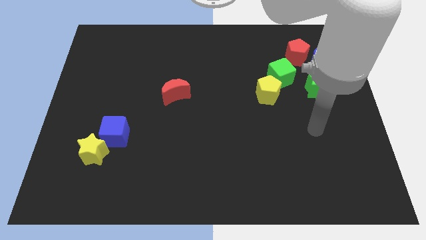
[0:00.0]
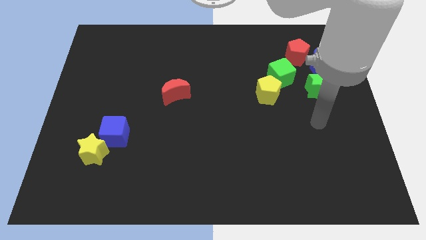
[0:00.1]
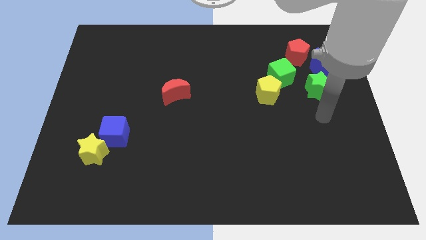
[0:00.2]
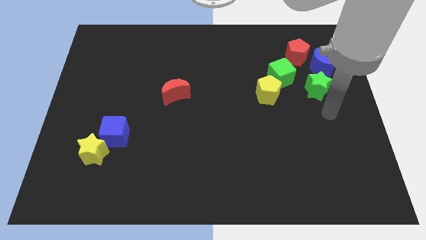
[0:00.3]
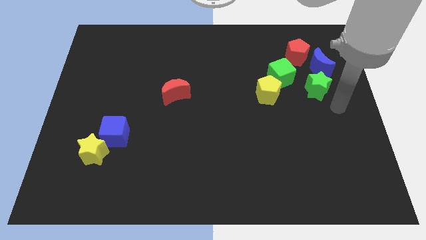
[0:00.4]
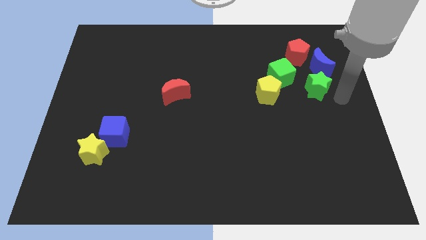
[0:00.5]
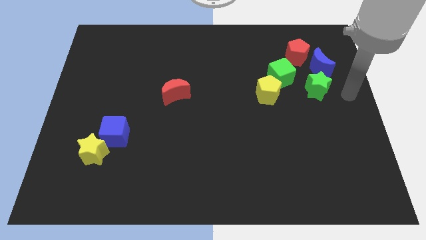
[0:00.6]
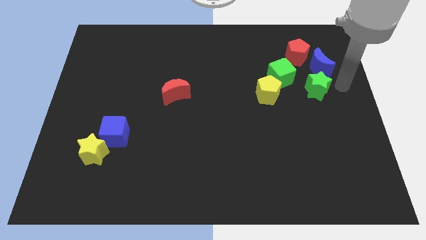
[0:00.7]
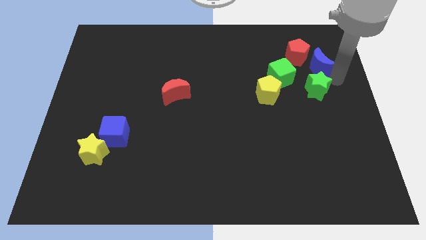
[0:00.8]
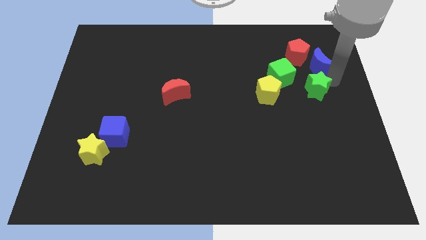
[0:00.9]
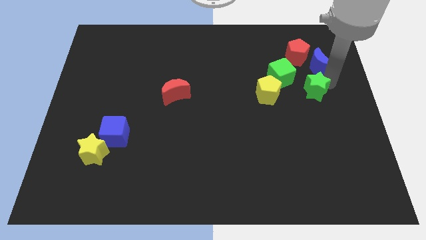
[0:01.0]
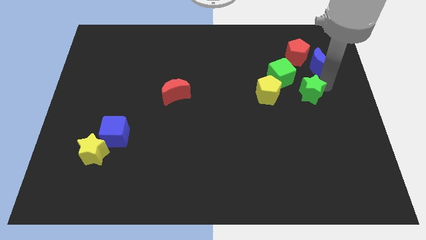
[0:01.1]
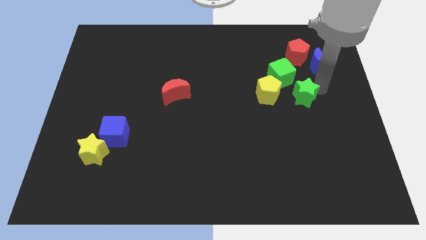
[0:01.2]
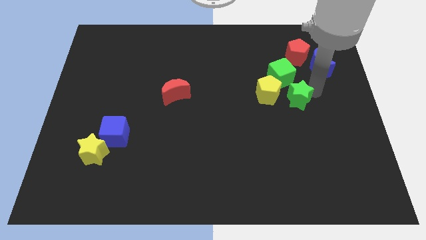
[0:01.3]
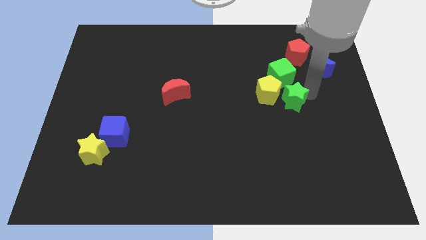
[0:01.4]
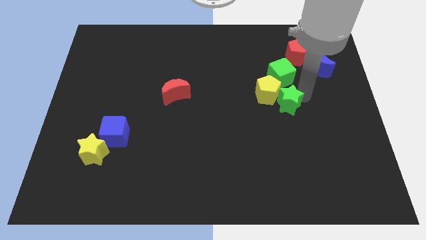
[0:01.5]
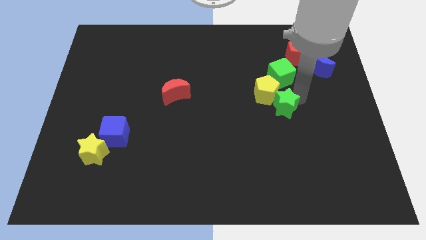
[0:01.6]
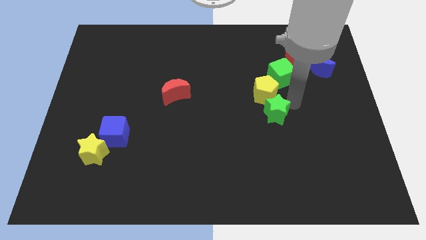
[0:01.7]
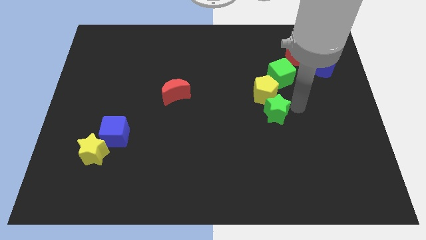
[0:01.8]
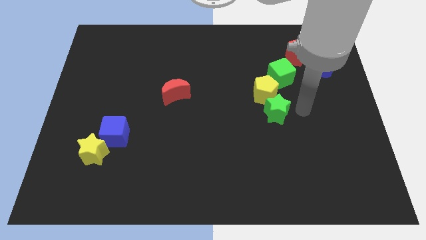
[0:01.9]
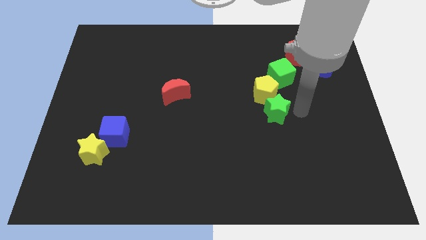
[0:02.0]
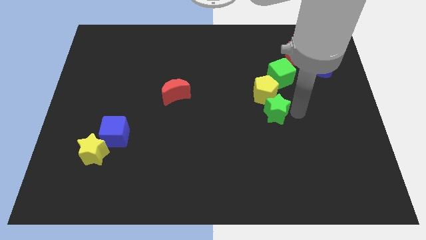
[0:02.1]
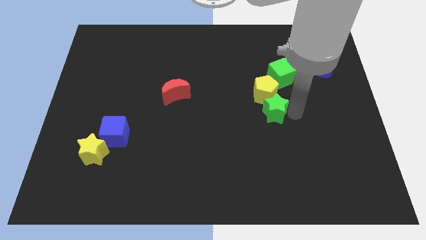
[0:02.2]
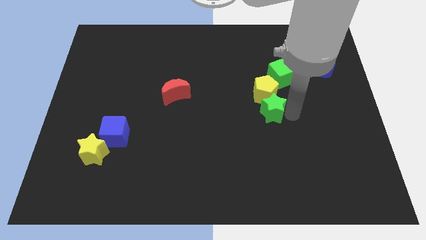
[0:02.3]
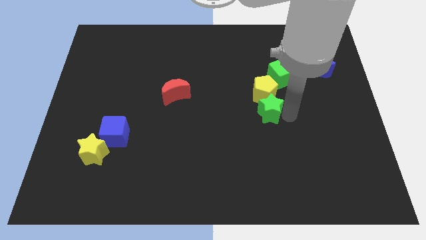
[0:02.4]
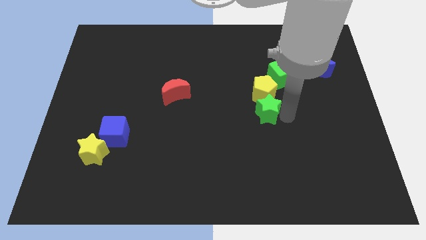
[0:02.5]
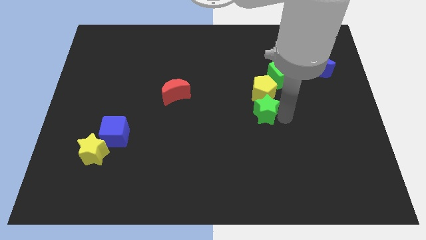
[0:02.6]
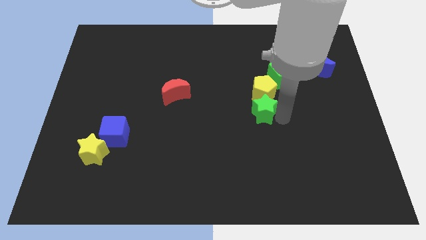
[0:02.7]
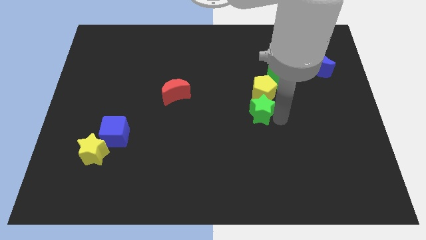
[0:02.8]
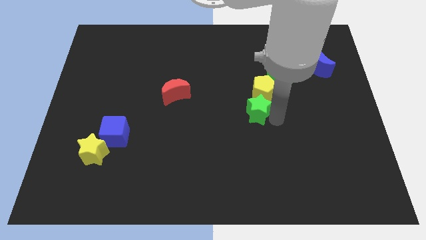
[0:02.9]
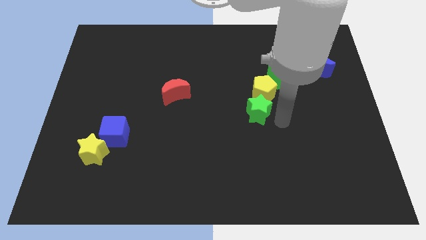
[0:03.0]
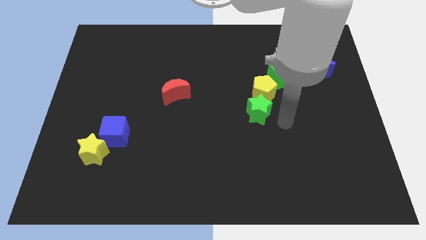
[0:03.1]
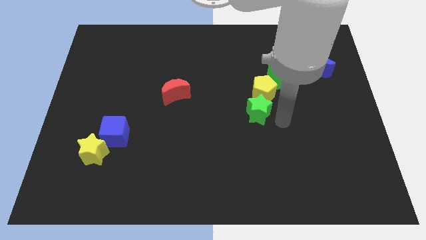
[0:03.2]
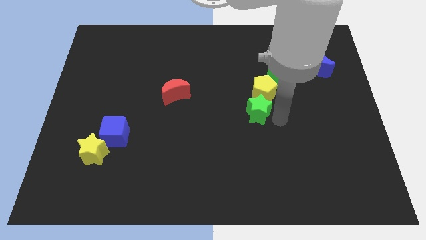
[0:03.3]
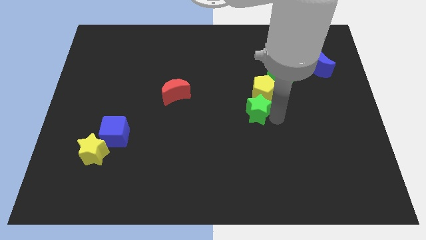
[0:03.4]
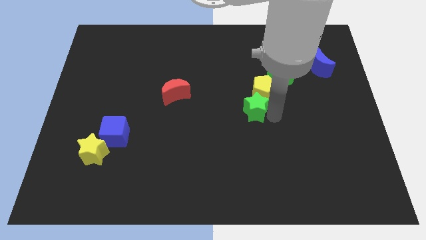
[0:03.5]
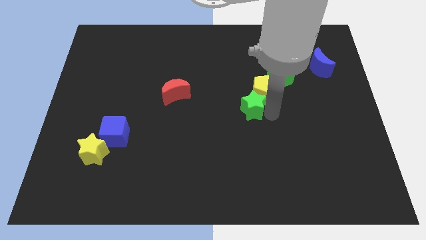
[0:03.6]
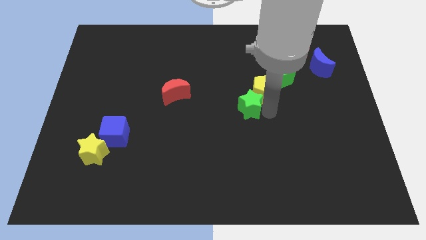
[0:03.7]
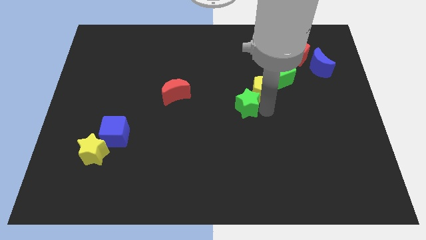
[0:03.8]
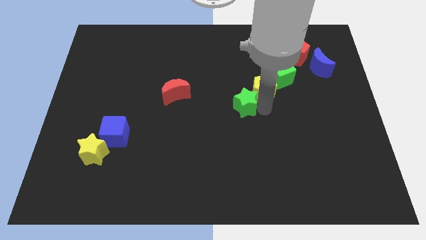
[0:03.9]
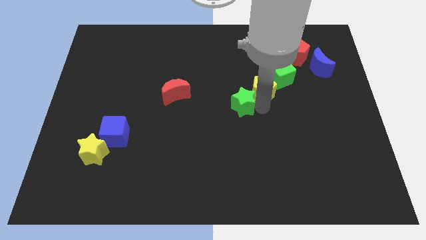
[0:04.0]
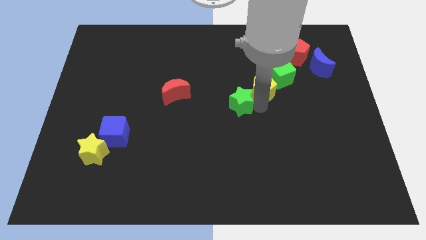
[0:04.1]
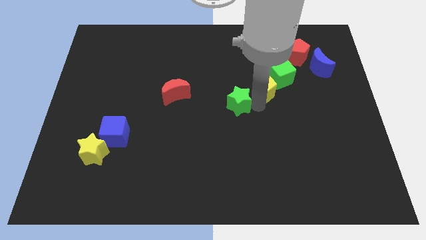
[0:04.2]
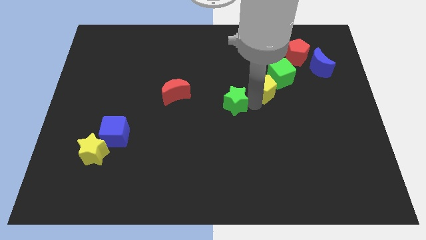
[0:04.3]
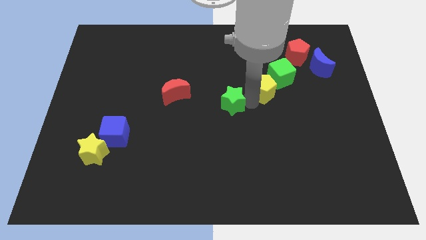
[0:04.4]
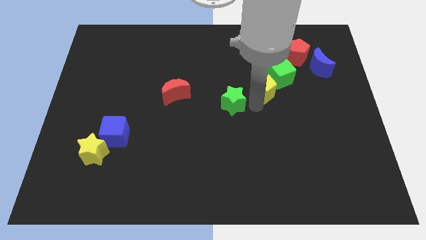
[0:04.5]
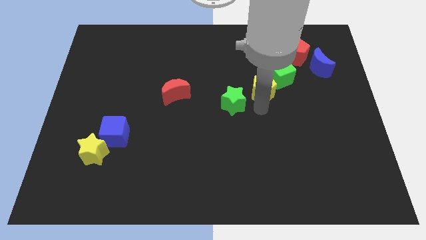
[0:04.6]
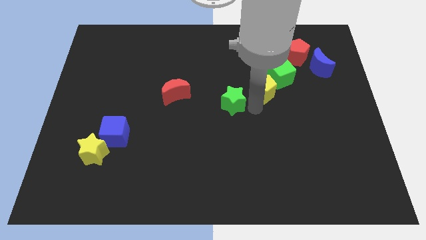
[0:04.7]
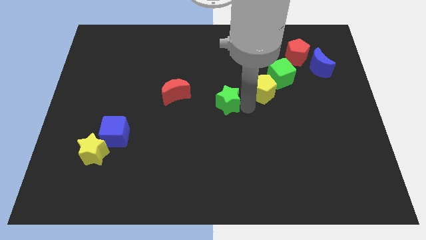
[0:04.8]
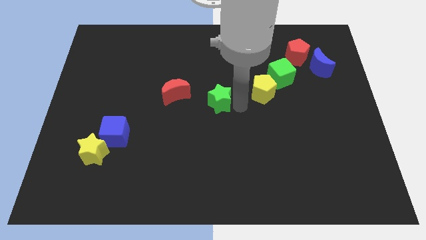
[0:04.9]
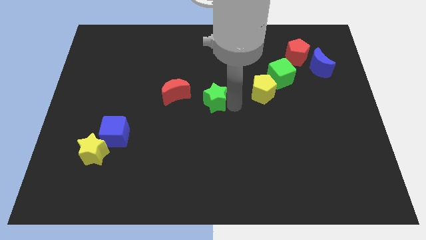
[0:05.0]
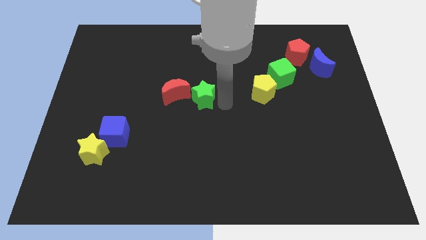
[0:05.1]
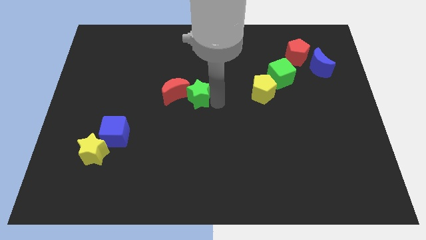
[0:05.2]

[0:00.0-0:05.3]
push the green star next to the red moon

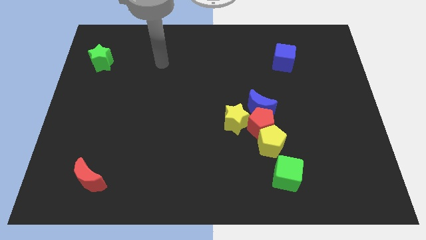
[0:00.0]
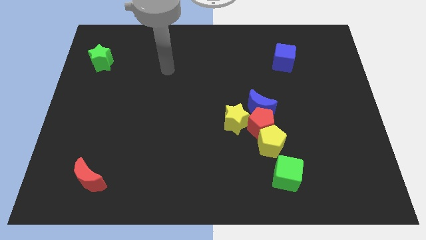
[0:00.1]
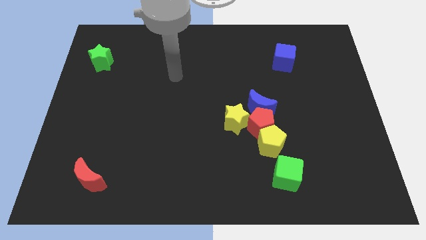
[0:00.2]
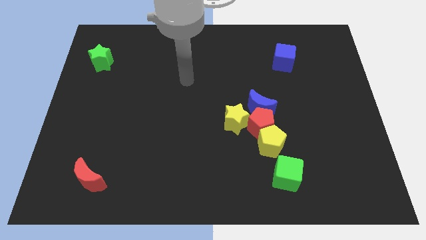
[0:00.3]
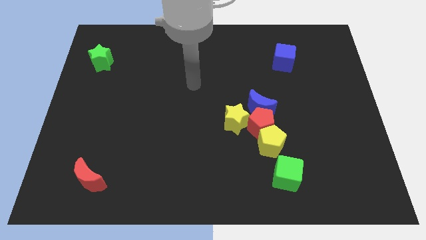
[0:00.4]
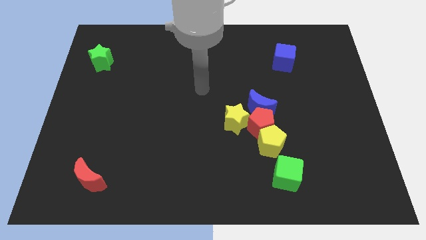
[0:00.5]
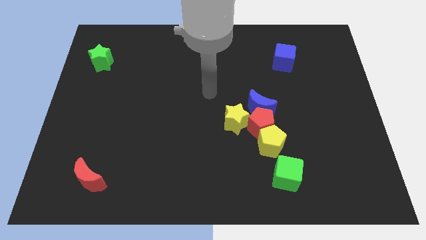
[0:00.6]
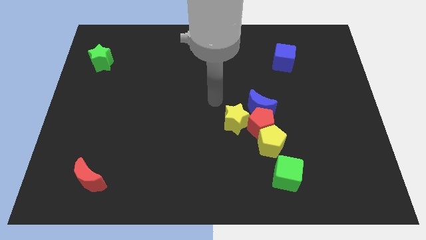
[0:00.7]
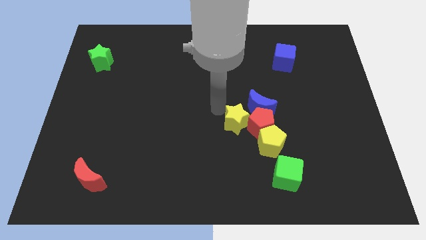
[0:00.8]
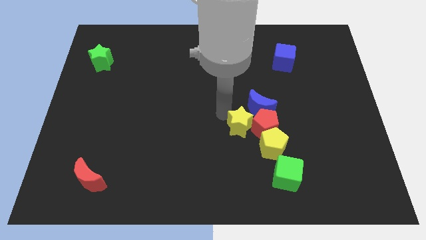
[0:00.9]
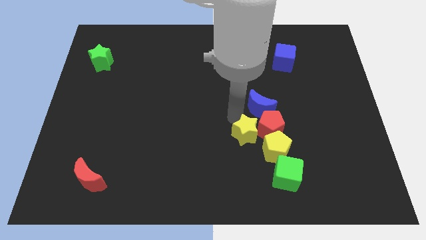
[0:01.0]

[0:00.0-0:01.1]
move the yellow pentagon towards the green cube
